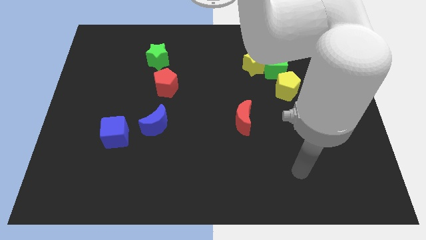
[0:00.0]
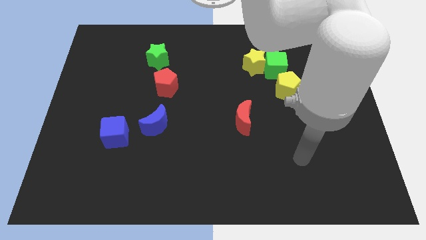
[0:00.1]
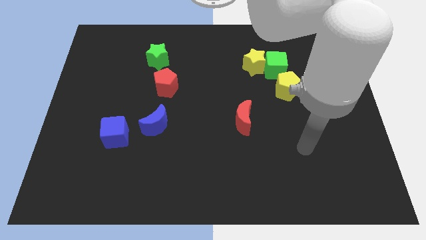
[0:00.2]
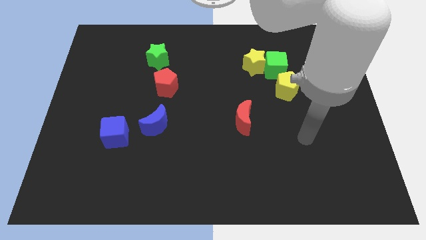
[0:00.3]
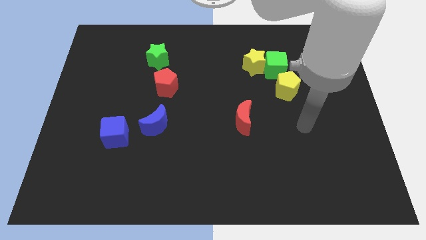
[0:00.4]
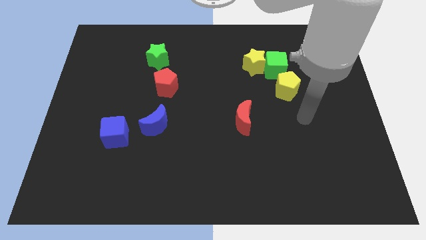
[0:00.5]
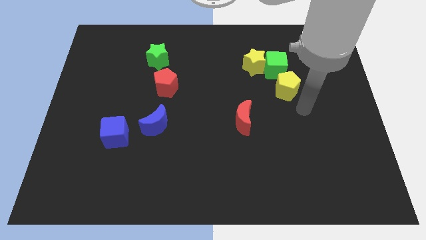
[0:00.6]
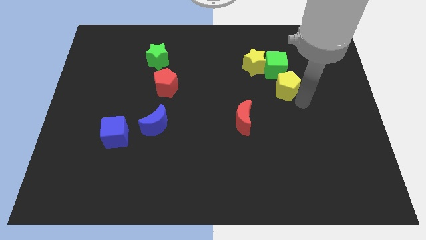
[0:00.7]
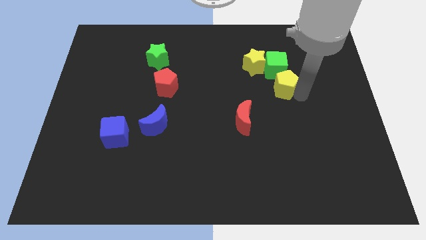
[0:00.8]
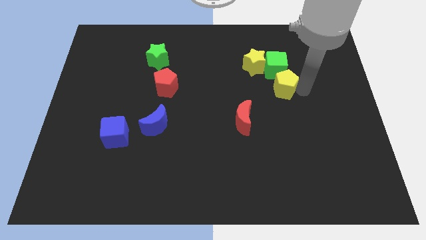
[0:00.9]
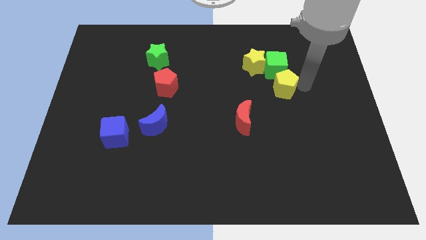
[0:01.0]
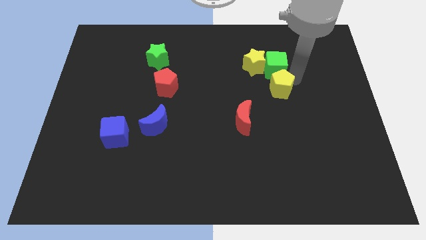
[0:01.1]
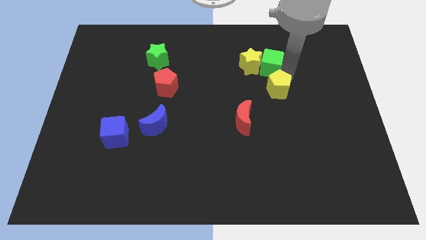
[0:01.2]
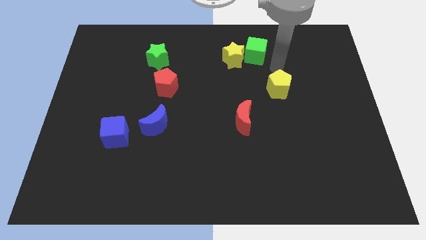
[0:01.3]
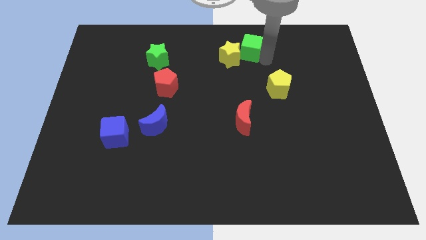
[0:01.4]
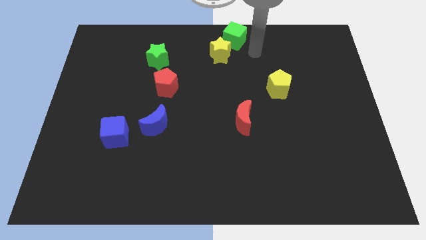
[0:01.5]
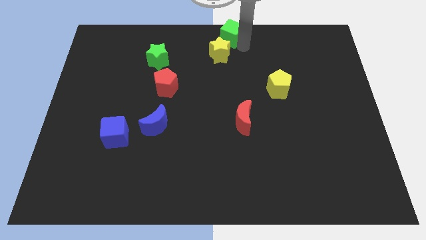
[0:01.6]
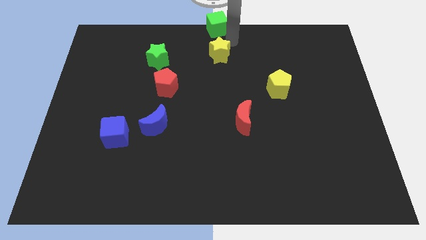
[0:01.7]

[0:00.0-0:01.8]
move the yellow star away from the green cube

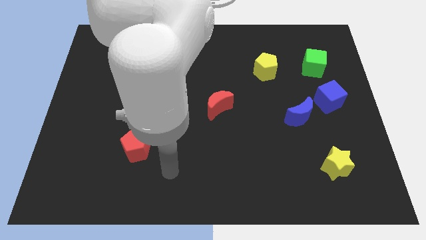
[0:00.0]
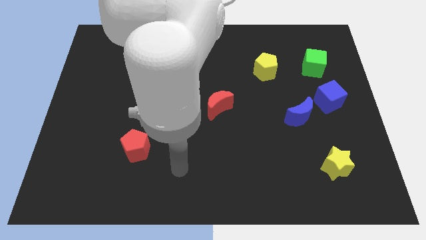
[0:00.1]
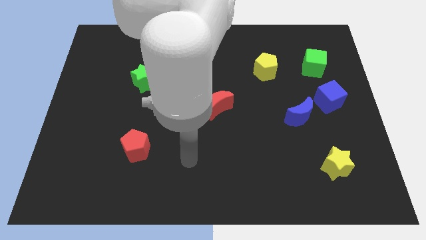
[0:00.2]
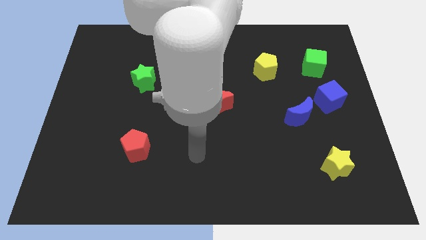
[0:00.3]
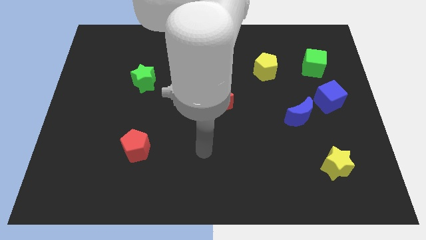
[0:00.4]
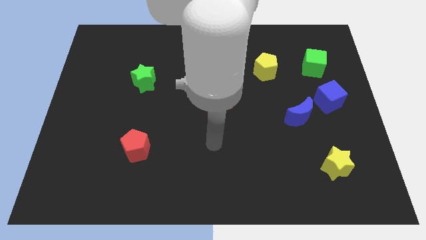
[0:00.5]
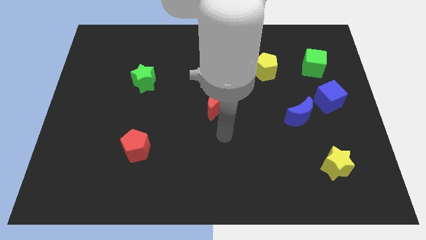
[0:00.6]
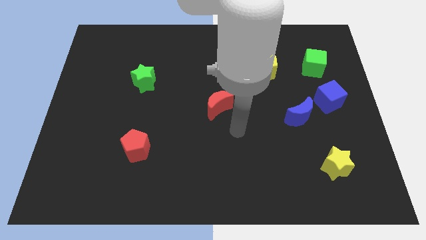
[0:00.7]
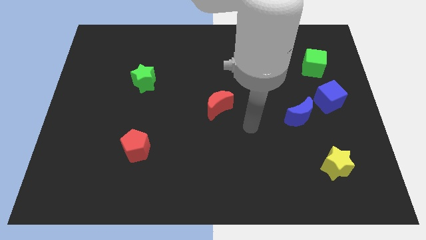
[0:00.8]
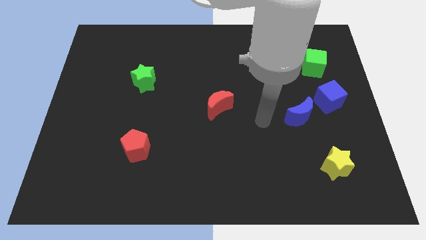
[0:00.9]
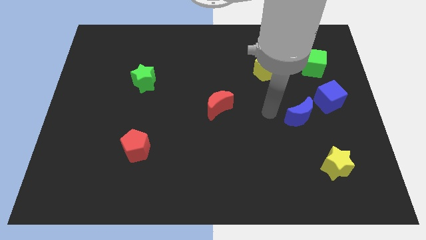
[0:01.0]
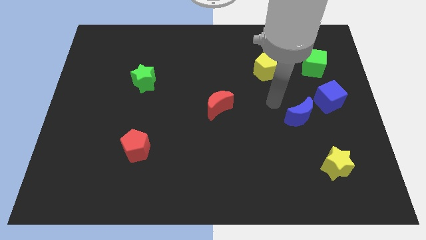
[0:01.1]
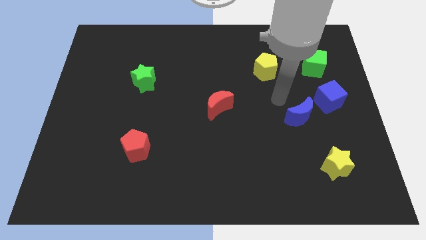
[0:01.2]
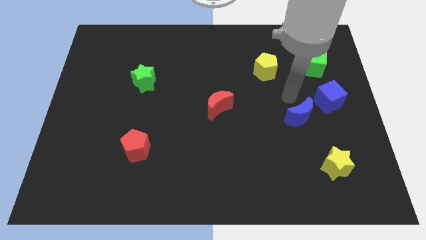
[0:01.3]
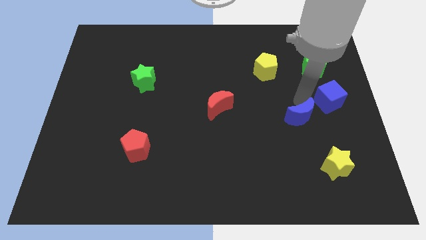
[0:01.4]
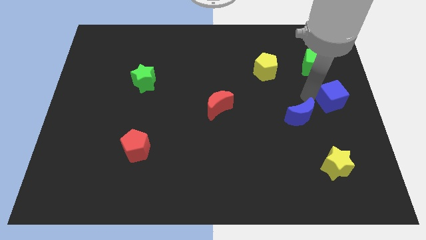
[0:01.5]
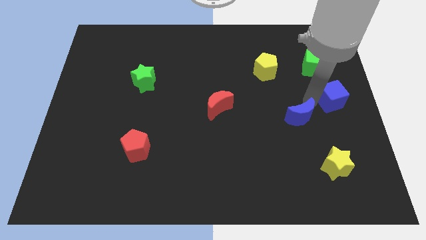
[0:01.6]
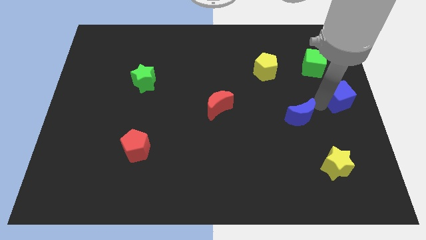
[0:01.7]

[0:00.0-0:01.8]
pull the blue moon apart from the blue cube

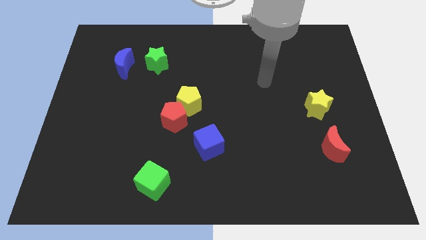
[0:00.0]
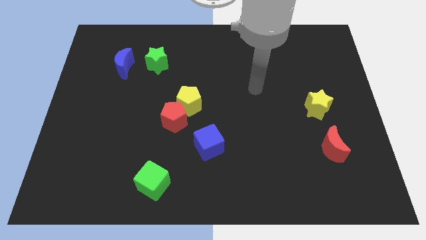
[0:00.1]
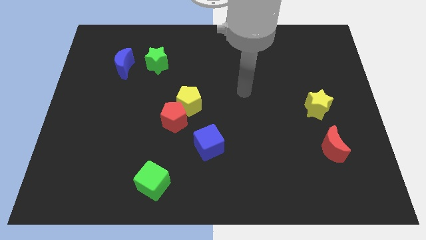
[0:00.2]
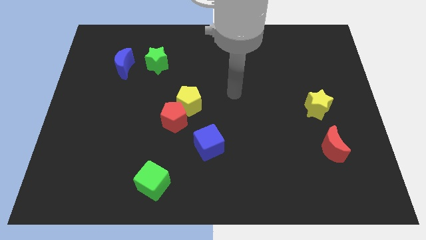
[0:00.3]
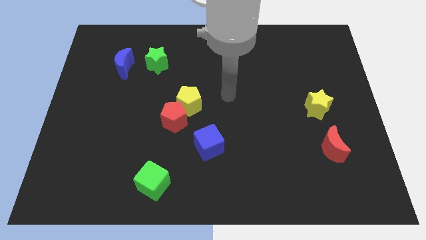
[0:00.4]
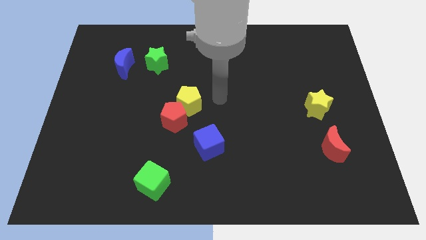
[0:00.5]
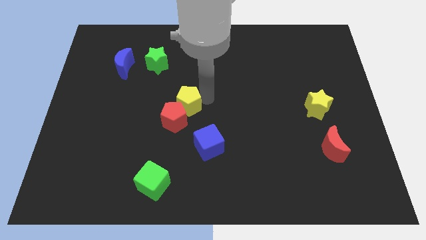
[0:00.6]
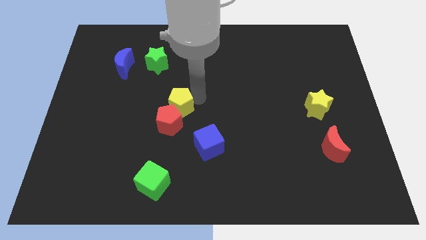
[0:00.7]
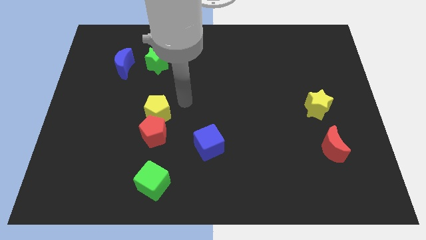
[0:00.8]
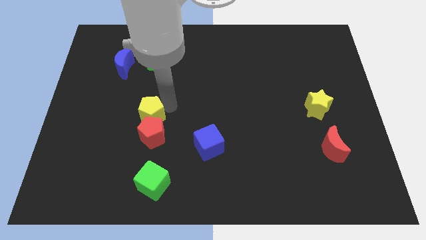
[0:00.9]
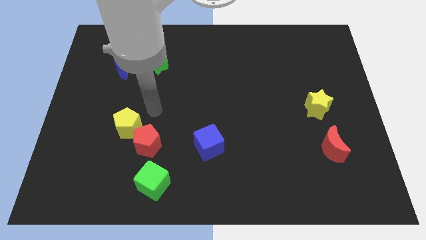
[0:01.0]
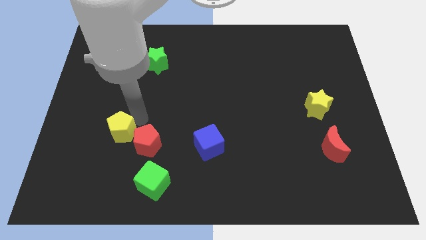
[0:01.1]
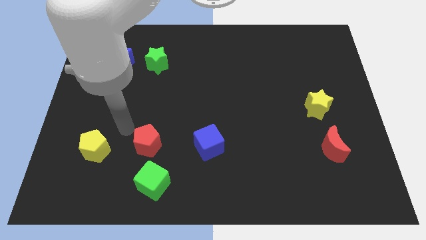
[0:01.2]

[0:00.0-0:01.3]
pull the red pentagon apart from the yellow pentagon

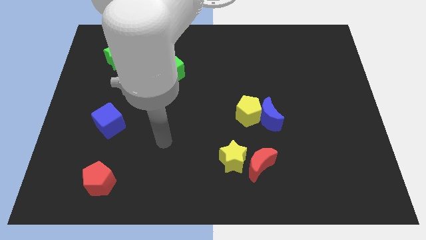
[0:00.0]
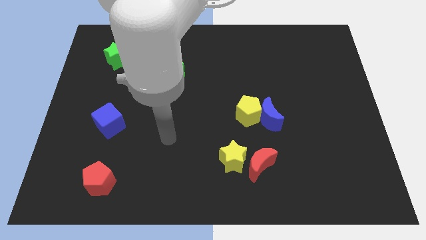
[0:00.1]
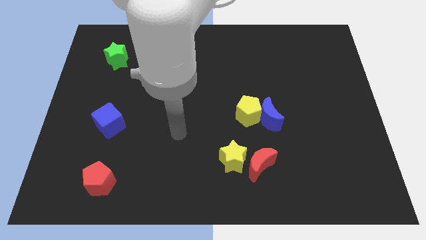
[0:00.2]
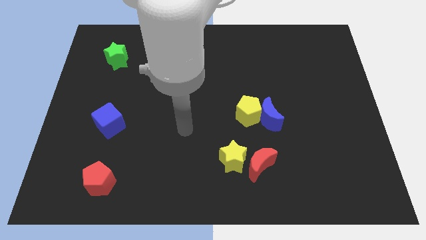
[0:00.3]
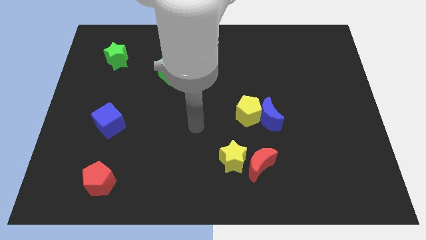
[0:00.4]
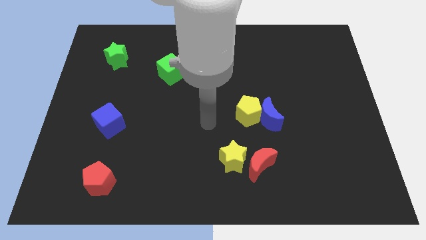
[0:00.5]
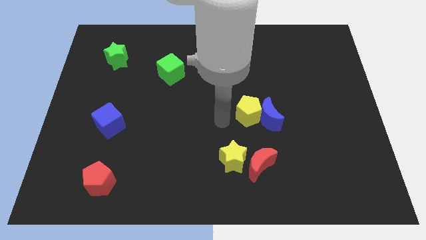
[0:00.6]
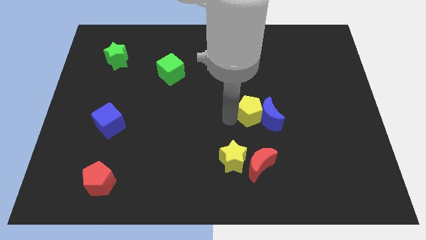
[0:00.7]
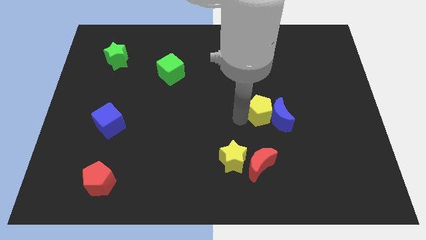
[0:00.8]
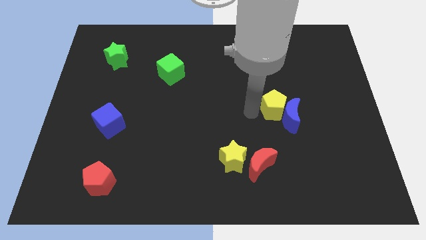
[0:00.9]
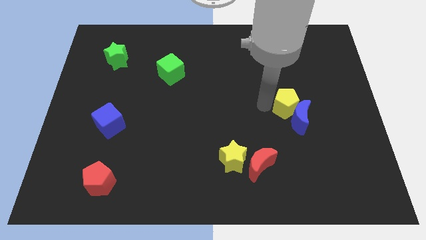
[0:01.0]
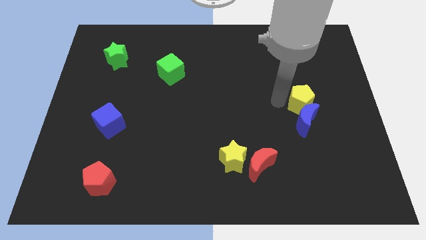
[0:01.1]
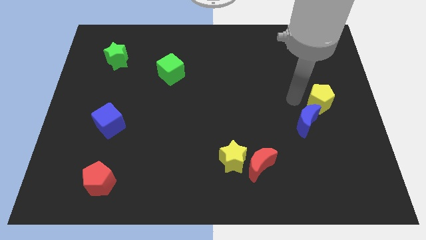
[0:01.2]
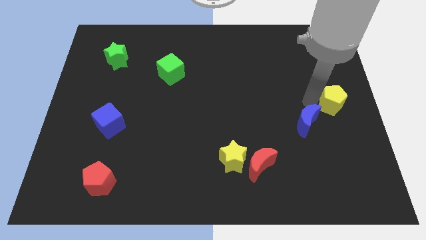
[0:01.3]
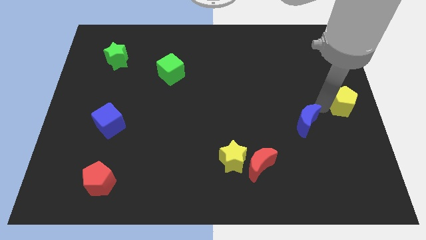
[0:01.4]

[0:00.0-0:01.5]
move the blue moon away from the yellow pentagon

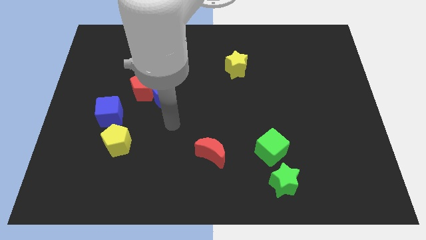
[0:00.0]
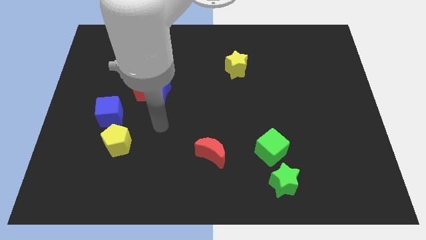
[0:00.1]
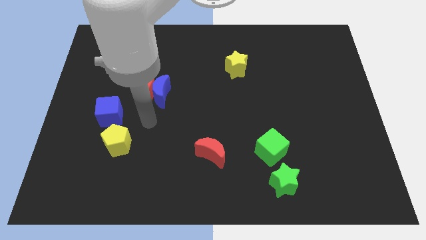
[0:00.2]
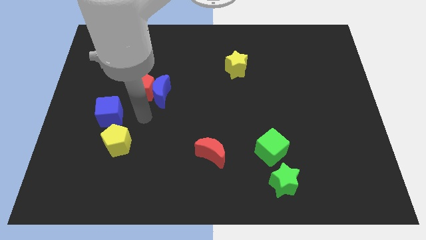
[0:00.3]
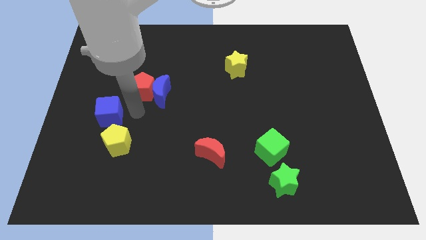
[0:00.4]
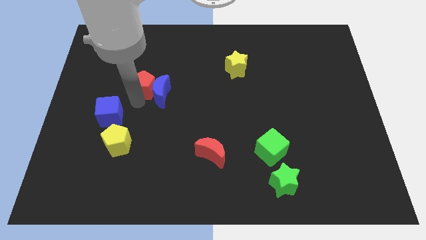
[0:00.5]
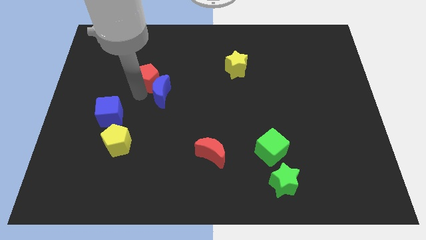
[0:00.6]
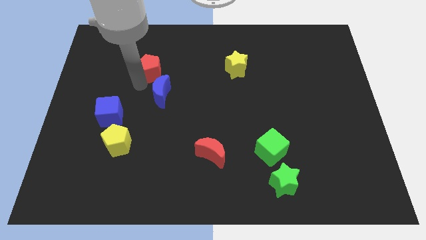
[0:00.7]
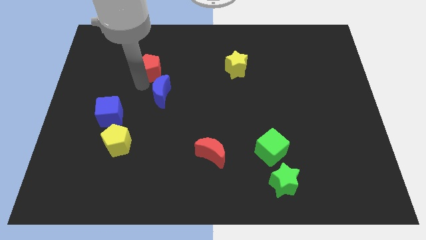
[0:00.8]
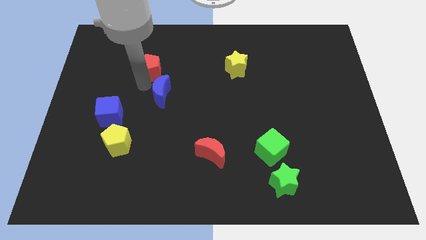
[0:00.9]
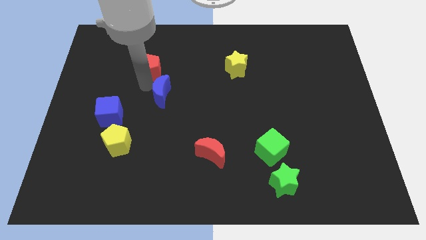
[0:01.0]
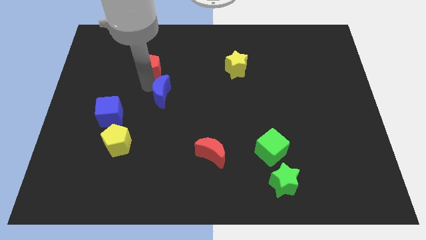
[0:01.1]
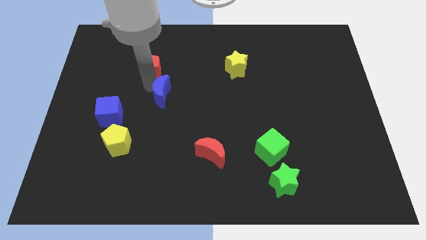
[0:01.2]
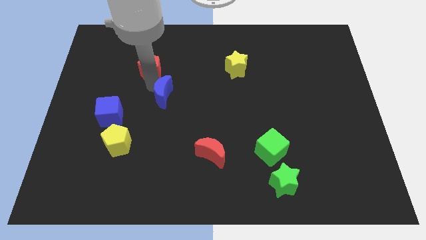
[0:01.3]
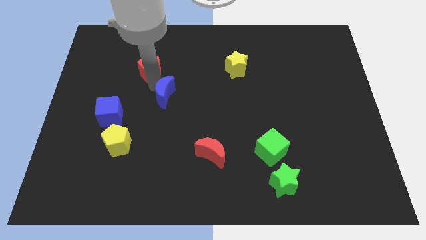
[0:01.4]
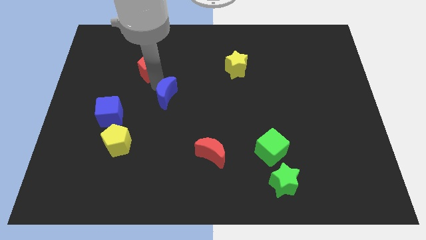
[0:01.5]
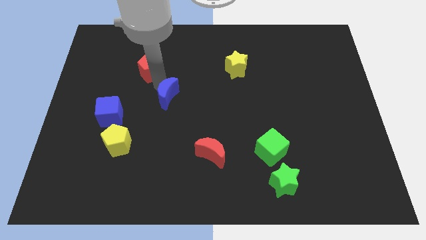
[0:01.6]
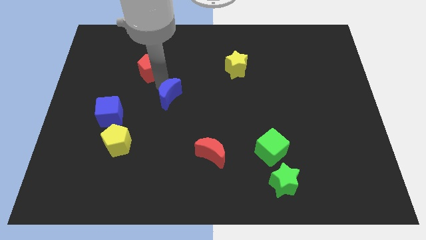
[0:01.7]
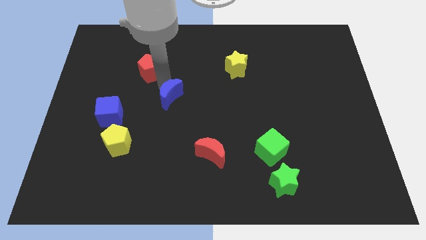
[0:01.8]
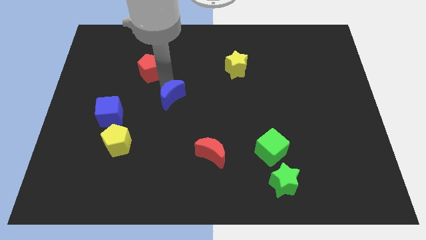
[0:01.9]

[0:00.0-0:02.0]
move the blue moon away from the red pentagon

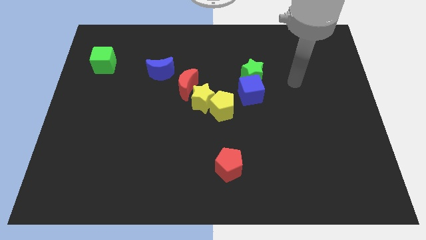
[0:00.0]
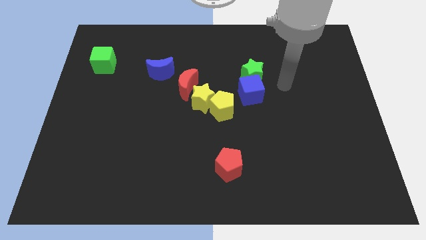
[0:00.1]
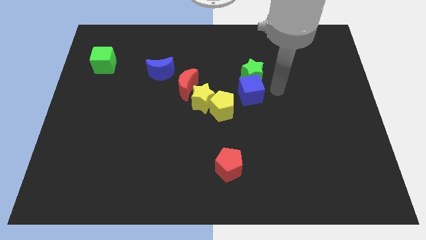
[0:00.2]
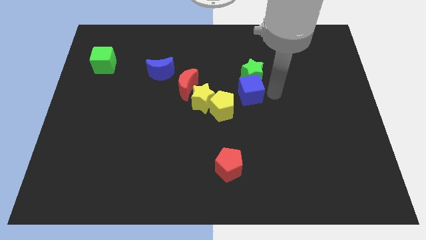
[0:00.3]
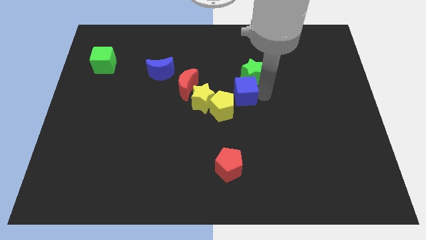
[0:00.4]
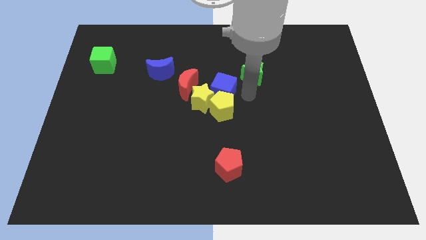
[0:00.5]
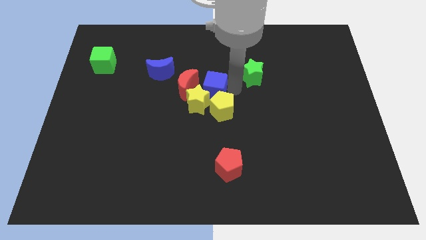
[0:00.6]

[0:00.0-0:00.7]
separate the green star from the blue cube

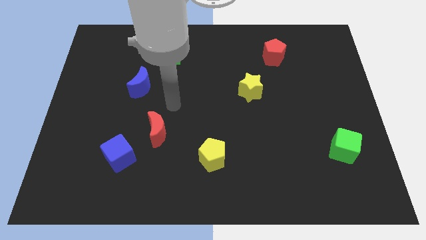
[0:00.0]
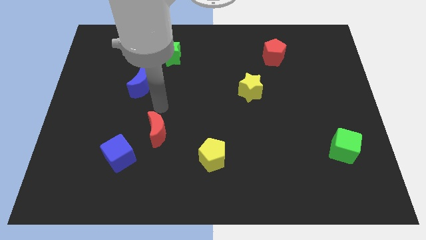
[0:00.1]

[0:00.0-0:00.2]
separate the red moon from the blue cube
